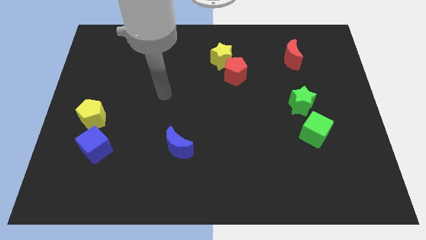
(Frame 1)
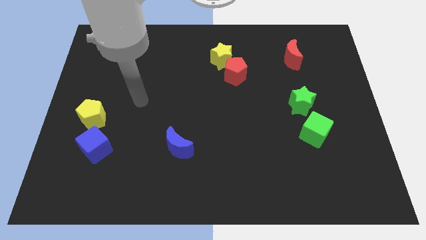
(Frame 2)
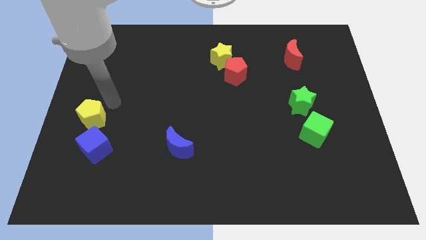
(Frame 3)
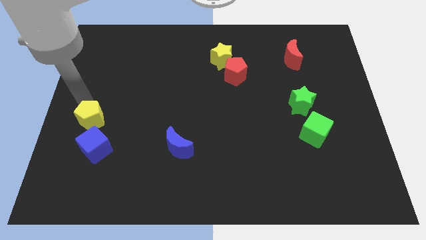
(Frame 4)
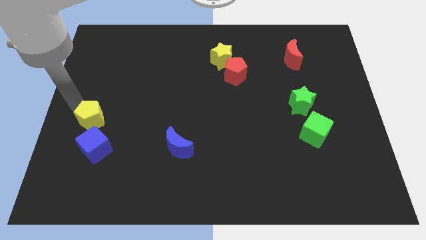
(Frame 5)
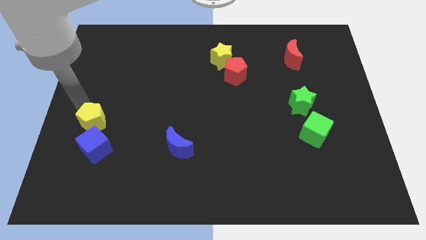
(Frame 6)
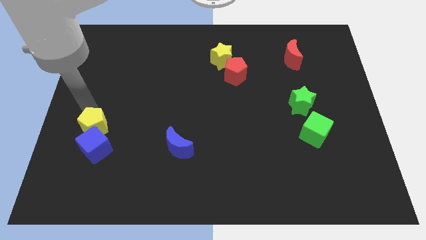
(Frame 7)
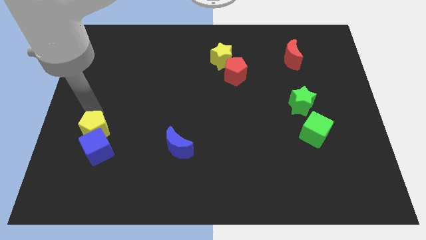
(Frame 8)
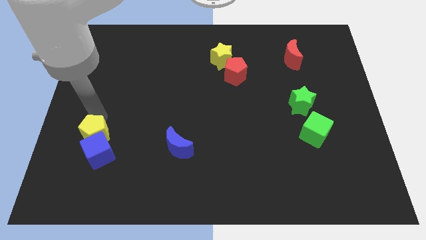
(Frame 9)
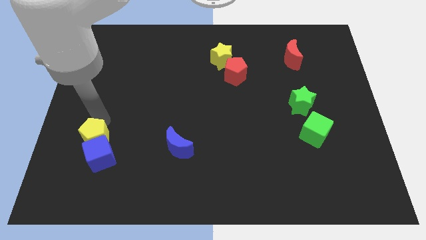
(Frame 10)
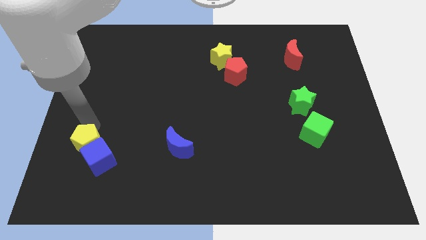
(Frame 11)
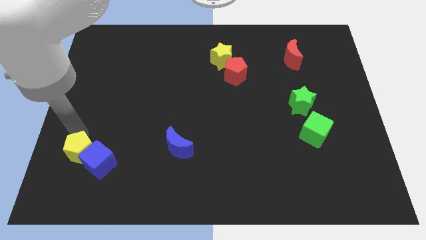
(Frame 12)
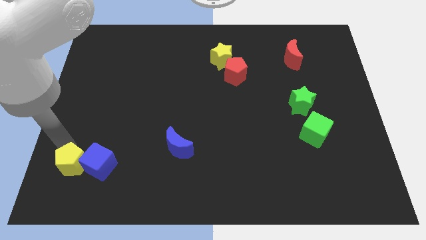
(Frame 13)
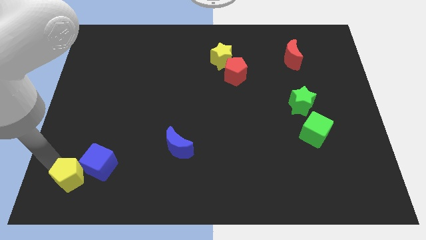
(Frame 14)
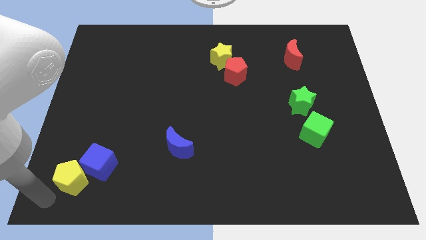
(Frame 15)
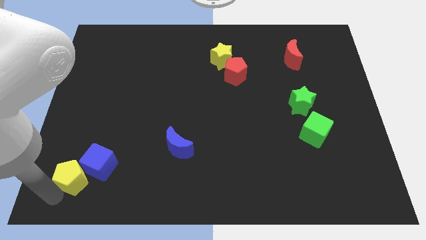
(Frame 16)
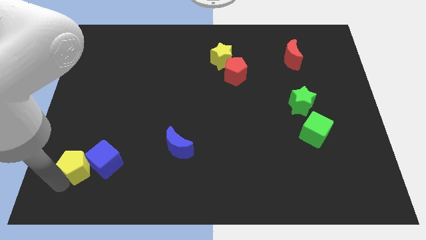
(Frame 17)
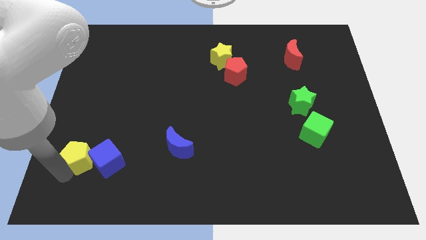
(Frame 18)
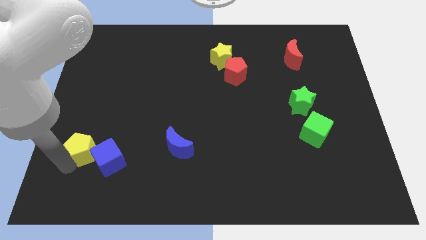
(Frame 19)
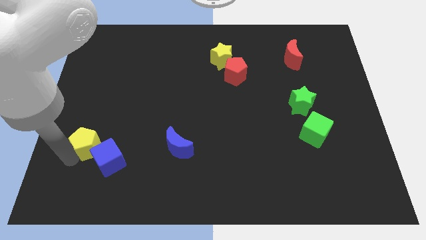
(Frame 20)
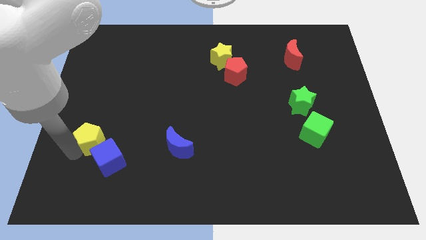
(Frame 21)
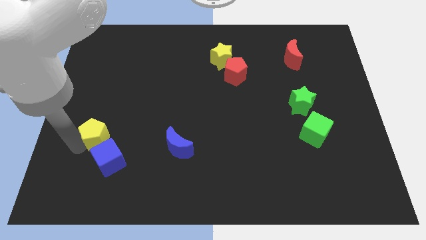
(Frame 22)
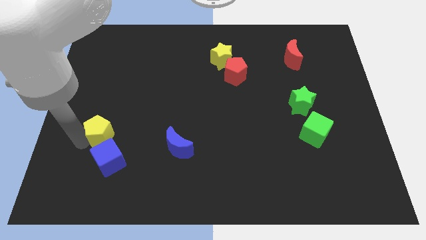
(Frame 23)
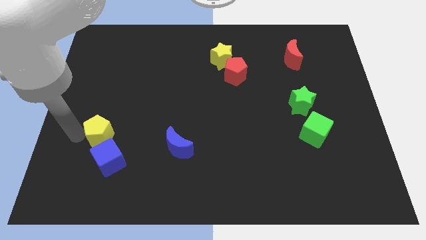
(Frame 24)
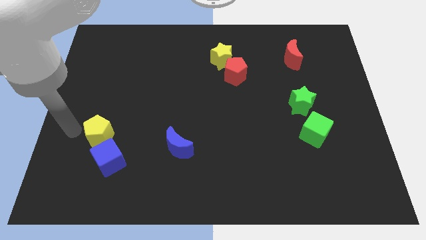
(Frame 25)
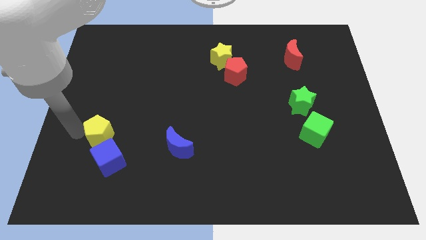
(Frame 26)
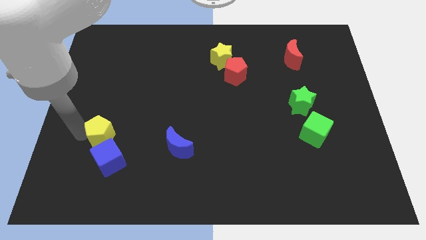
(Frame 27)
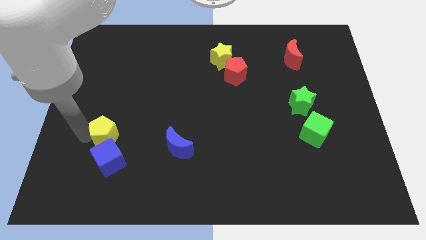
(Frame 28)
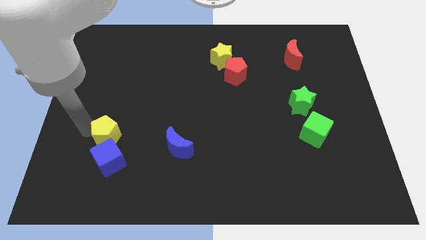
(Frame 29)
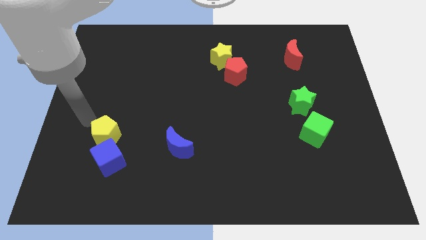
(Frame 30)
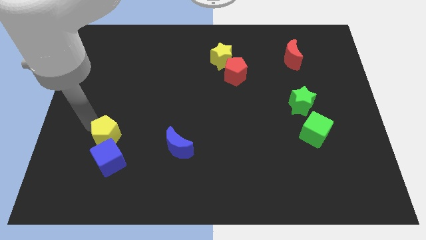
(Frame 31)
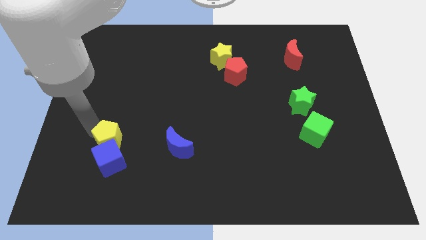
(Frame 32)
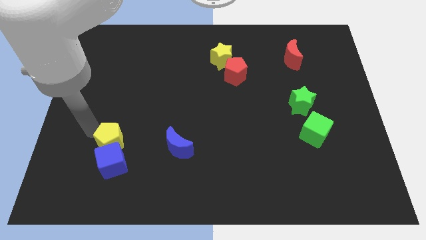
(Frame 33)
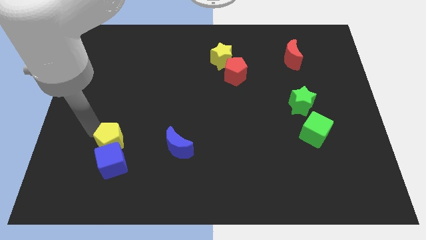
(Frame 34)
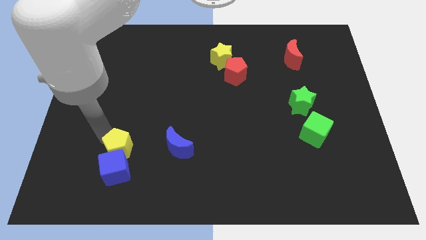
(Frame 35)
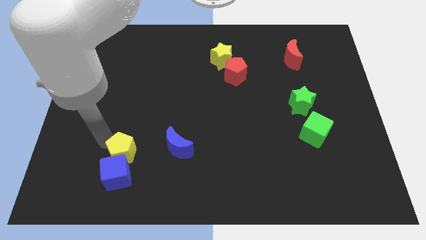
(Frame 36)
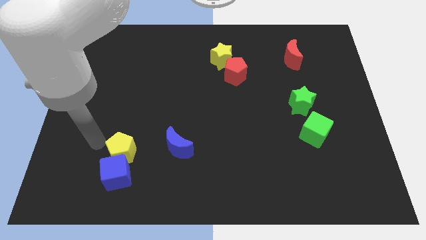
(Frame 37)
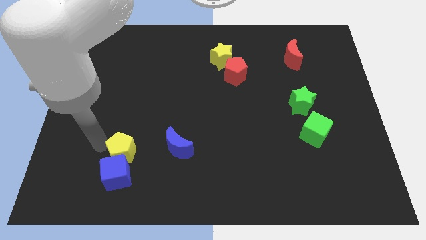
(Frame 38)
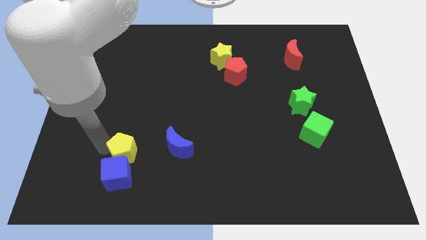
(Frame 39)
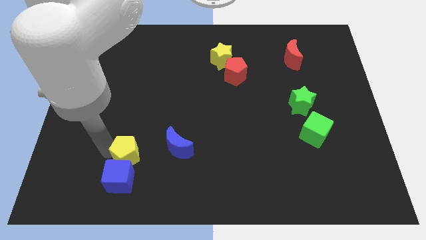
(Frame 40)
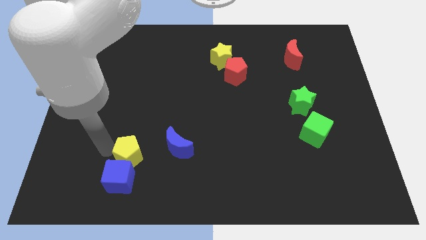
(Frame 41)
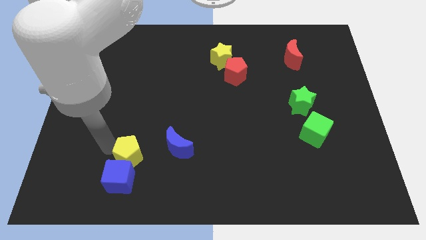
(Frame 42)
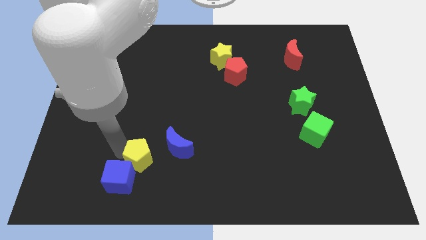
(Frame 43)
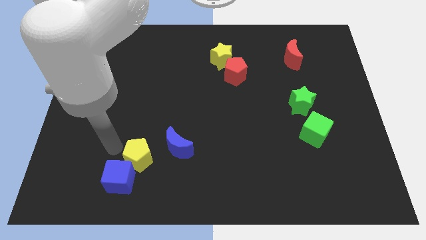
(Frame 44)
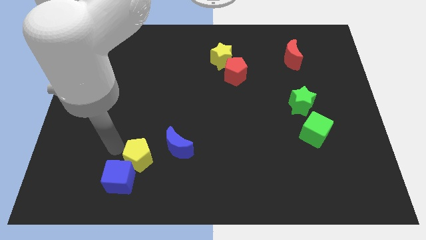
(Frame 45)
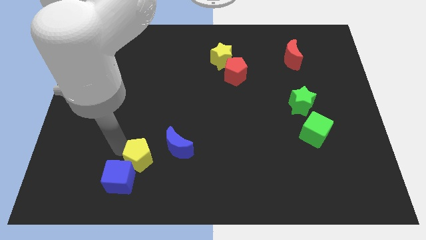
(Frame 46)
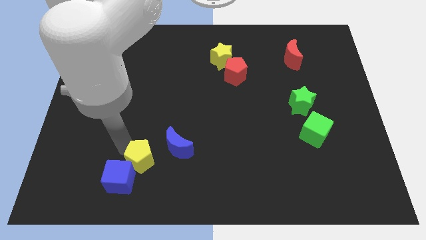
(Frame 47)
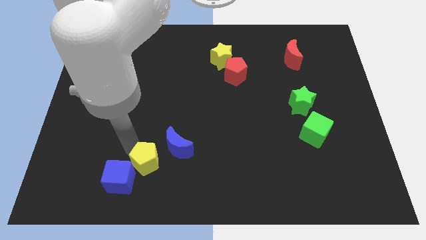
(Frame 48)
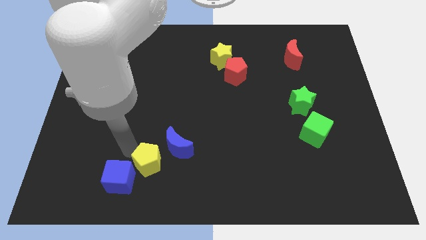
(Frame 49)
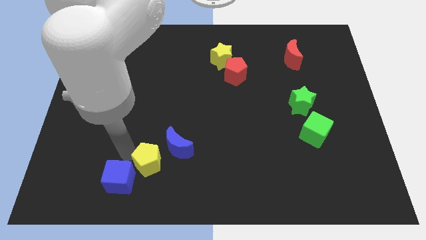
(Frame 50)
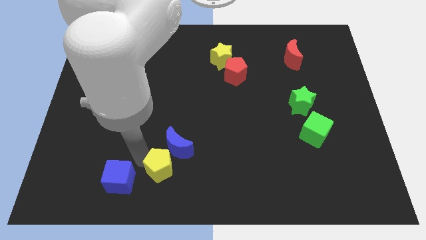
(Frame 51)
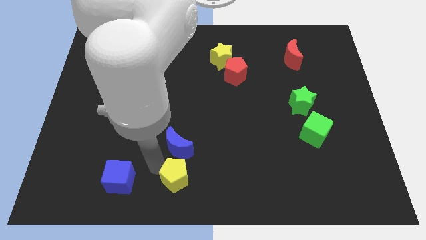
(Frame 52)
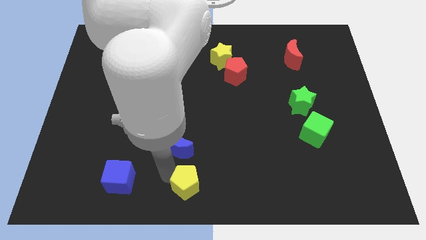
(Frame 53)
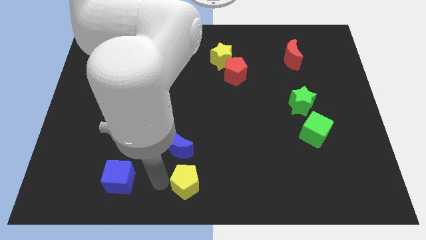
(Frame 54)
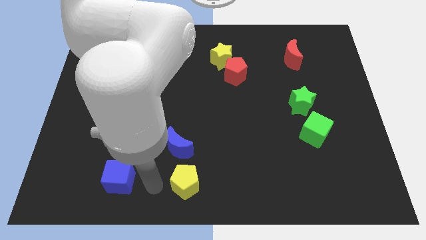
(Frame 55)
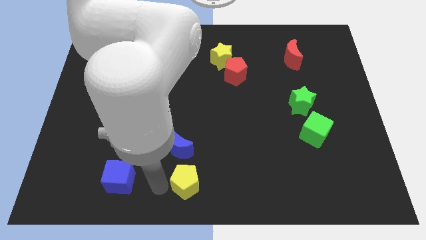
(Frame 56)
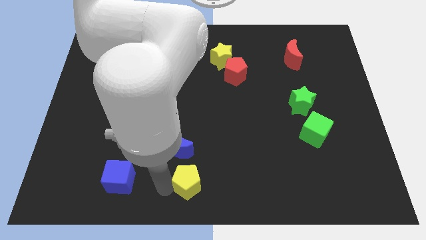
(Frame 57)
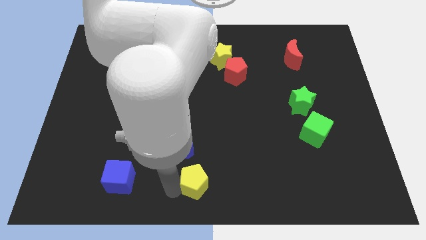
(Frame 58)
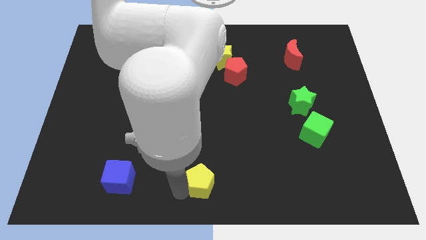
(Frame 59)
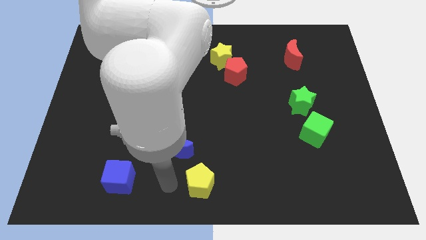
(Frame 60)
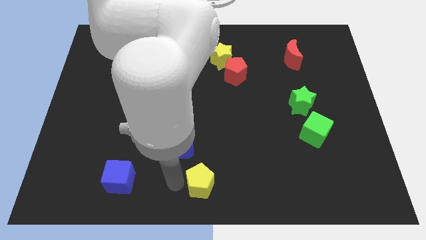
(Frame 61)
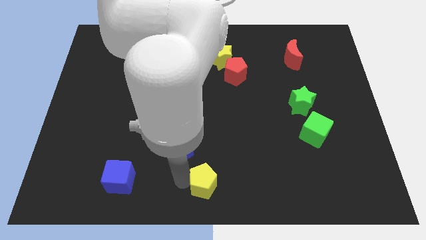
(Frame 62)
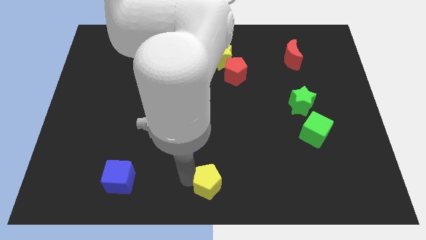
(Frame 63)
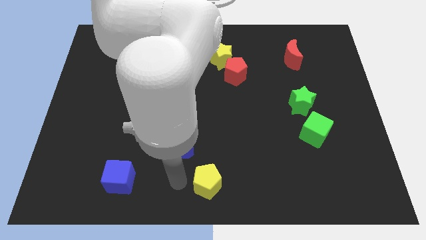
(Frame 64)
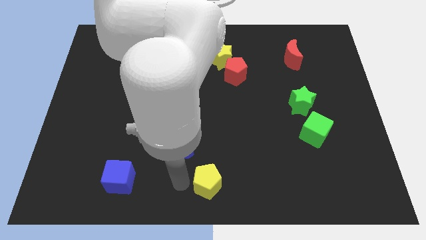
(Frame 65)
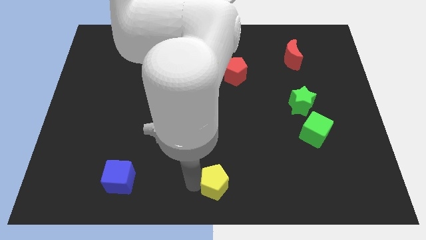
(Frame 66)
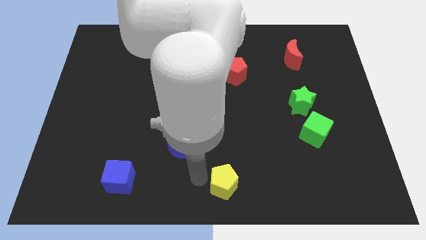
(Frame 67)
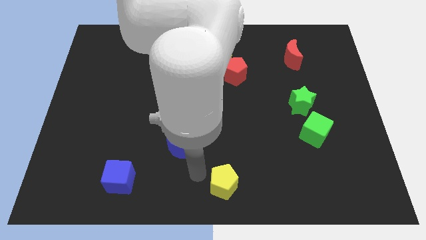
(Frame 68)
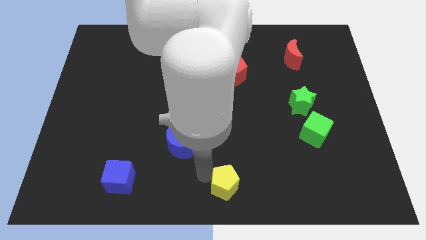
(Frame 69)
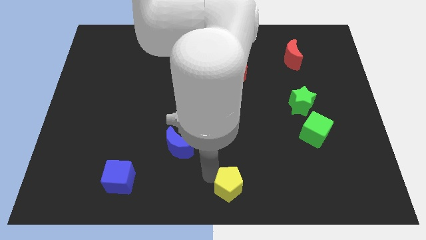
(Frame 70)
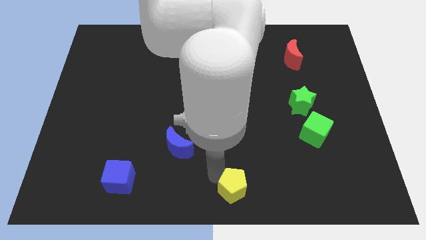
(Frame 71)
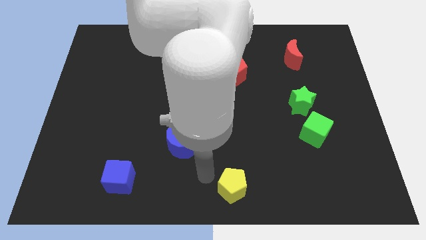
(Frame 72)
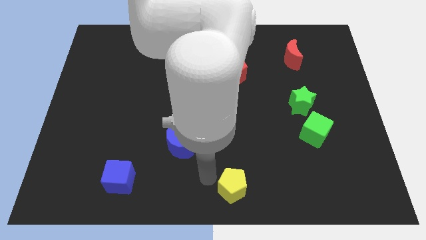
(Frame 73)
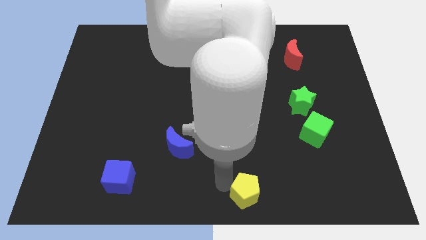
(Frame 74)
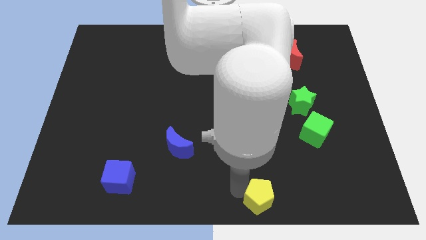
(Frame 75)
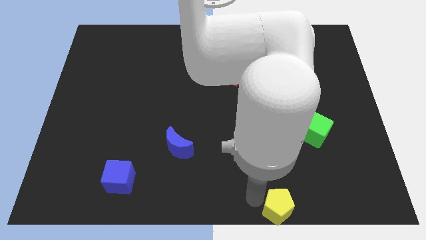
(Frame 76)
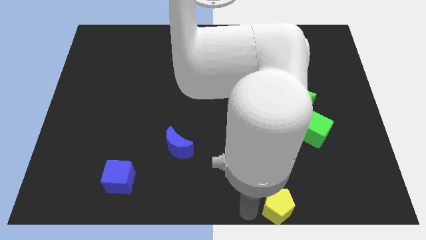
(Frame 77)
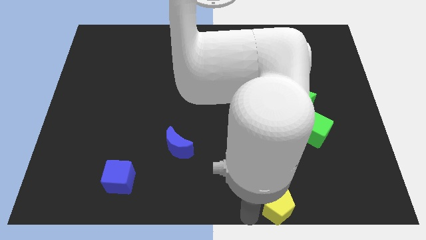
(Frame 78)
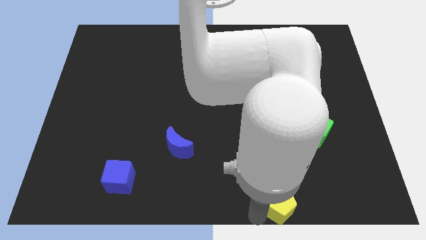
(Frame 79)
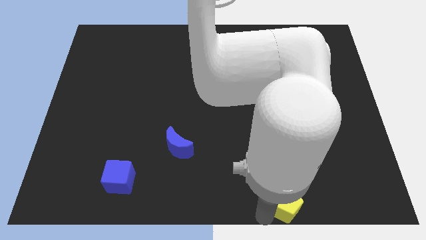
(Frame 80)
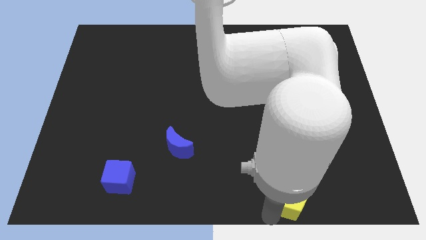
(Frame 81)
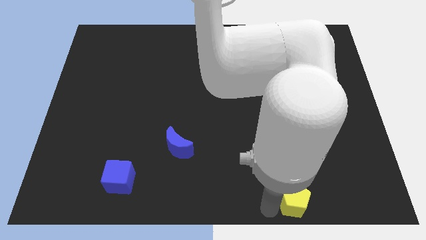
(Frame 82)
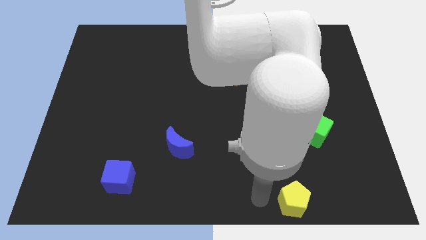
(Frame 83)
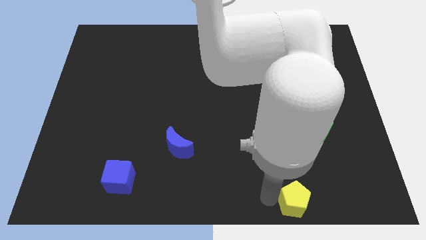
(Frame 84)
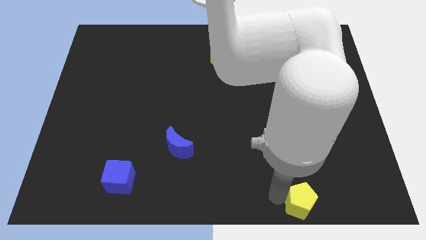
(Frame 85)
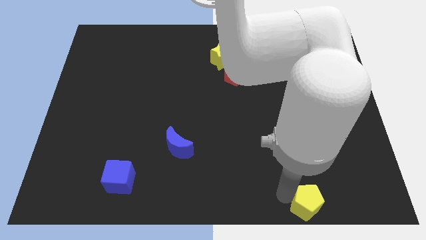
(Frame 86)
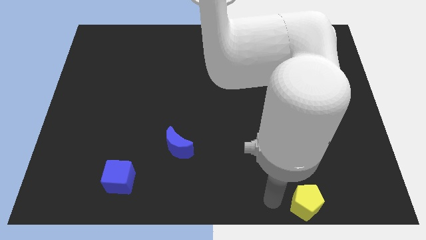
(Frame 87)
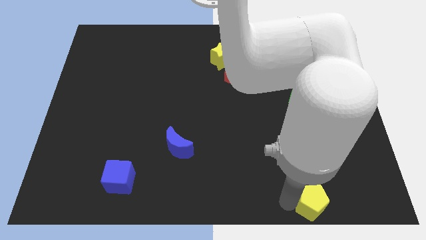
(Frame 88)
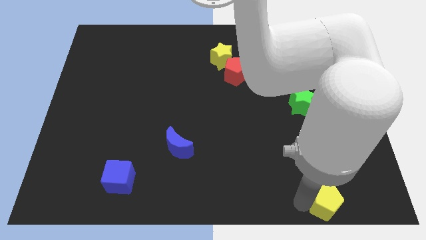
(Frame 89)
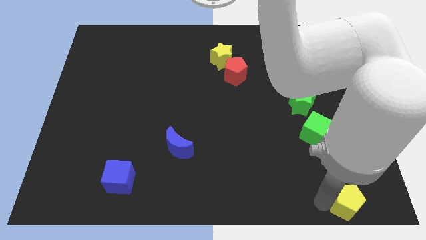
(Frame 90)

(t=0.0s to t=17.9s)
slide the yellow pentagon to the bottom right of the board
